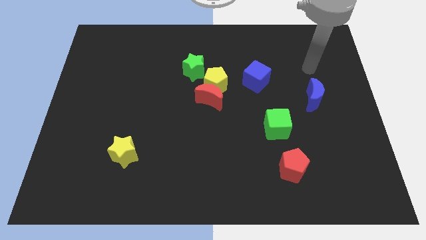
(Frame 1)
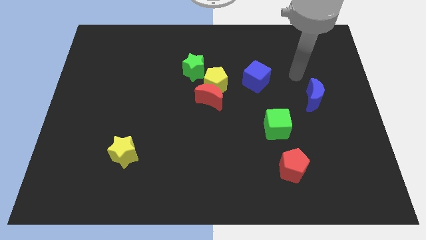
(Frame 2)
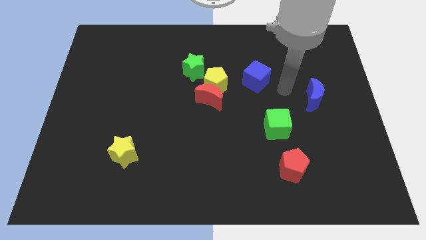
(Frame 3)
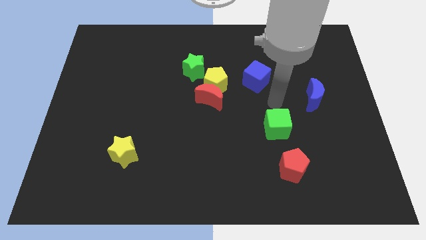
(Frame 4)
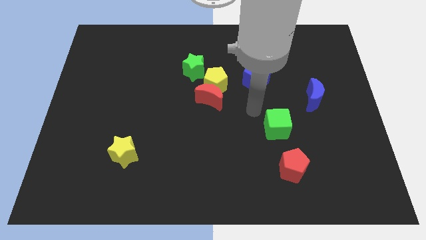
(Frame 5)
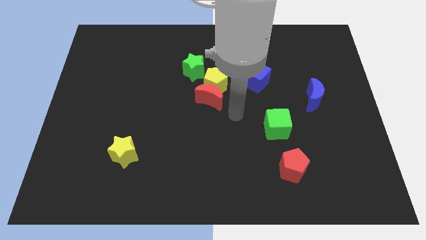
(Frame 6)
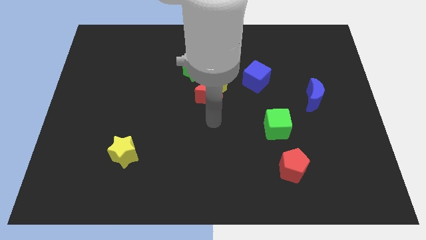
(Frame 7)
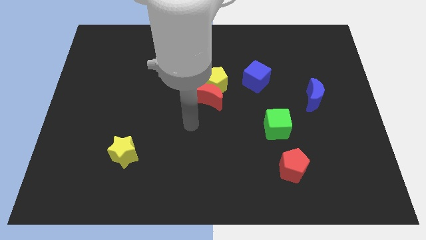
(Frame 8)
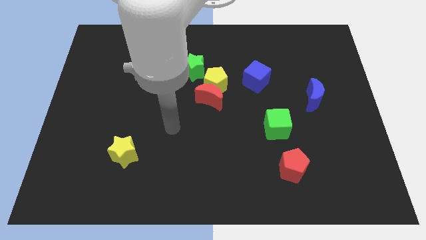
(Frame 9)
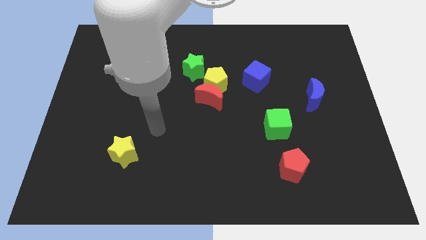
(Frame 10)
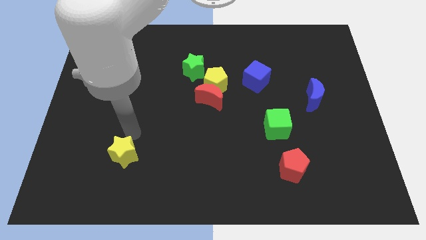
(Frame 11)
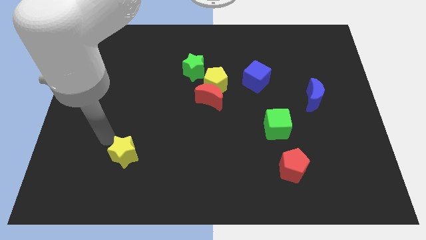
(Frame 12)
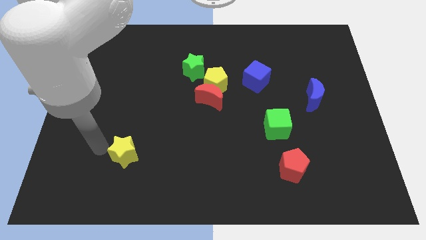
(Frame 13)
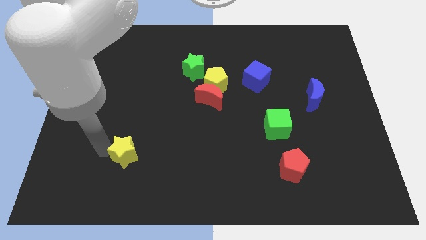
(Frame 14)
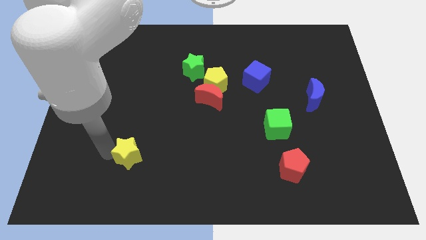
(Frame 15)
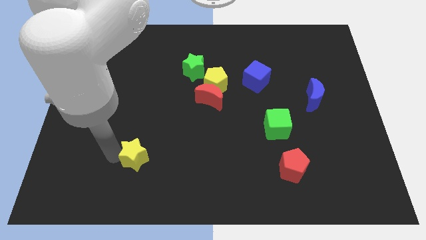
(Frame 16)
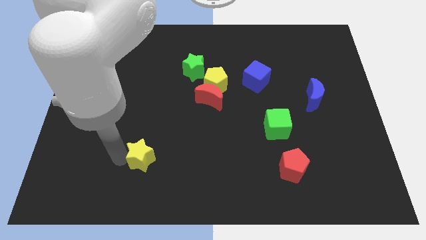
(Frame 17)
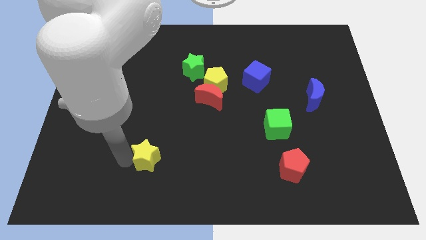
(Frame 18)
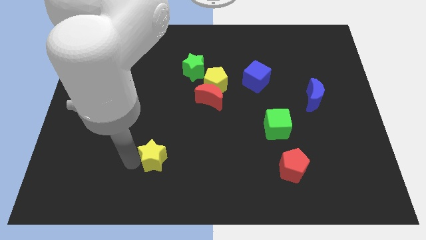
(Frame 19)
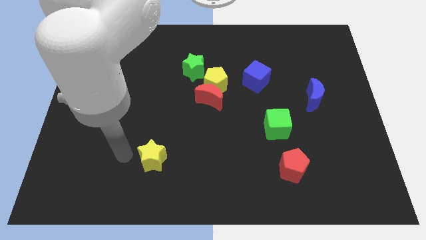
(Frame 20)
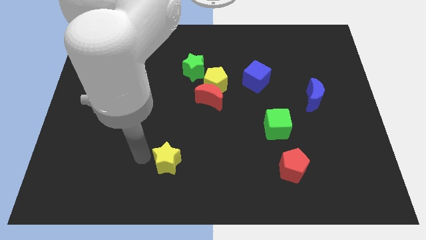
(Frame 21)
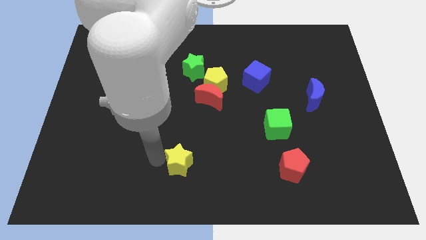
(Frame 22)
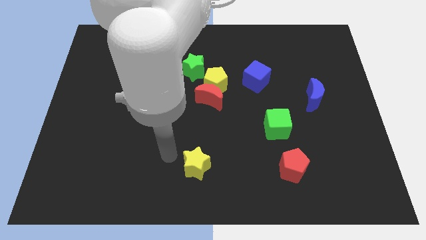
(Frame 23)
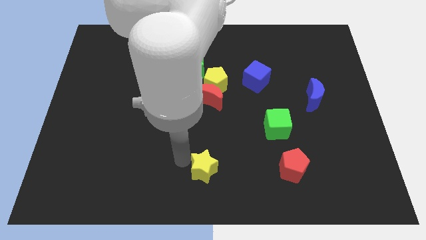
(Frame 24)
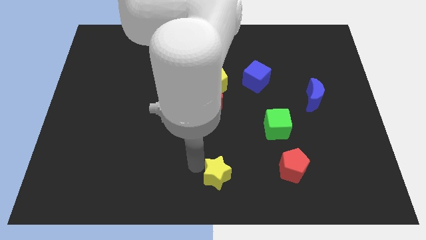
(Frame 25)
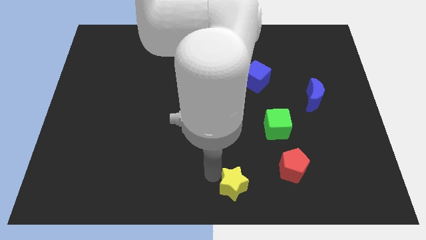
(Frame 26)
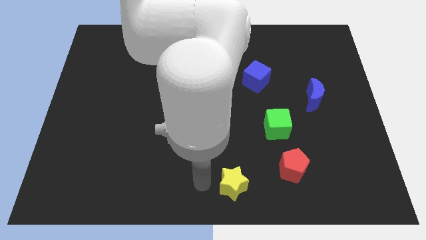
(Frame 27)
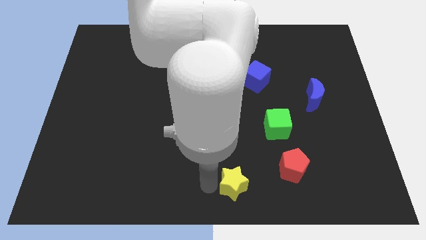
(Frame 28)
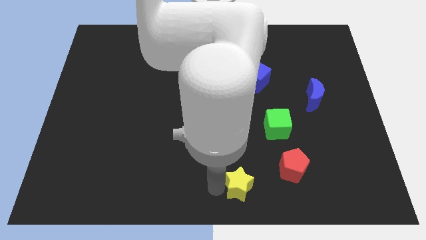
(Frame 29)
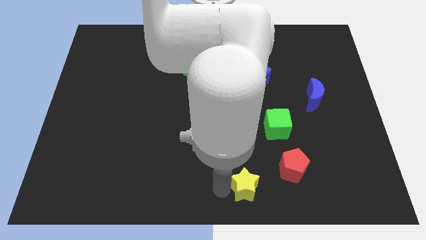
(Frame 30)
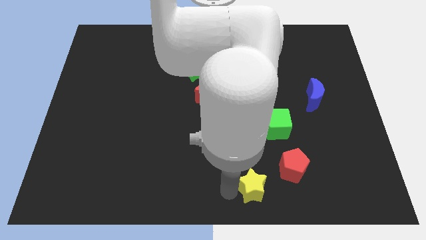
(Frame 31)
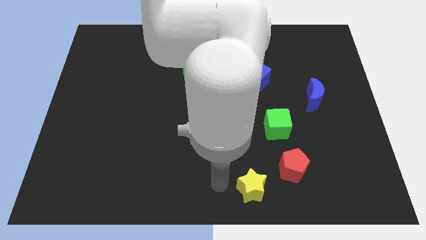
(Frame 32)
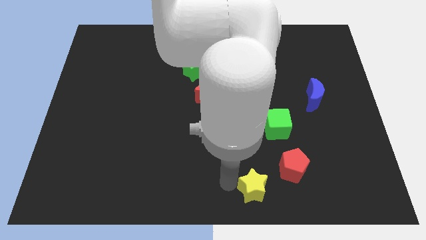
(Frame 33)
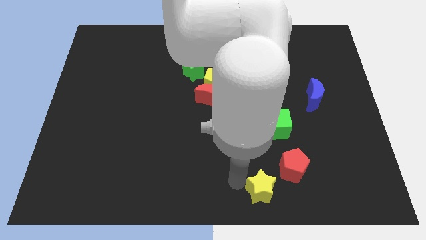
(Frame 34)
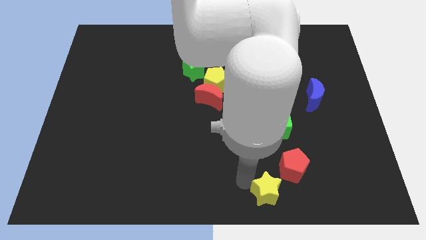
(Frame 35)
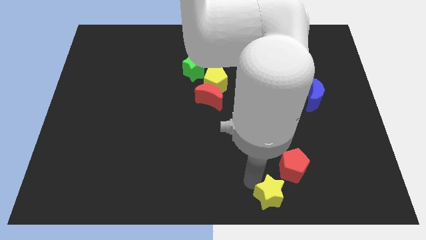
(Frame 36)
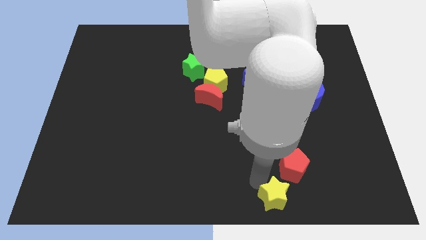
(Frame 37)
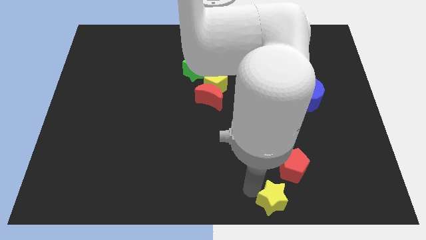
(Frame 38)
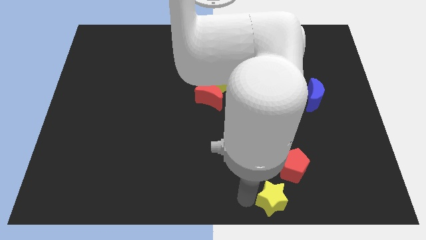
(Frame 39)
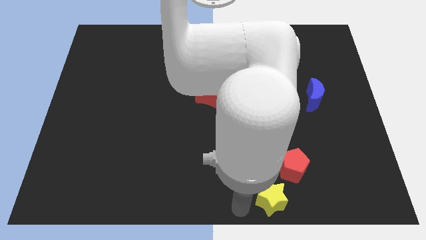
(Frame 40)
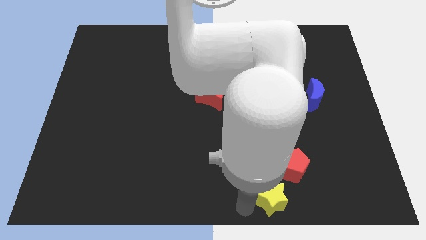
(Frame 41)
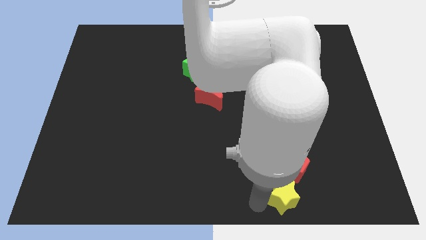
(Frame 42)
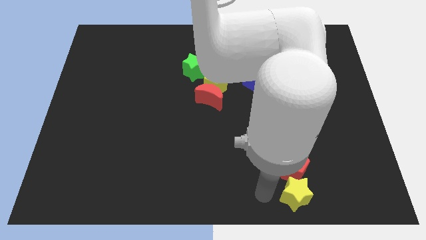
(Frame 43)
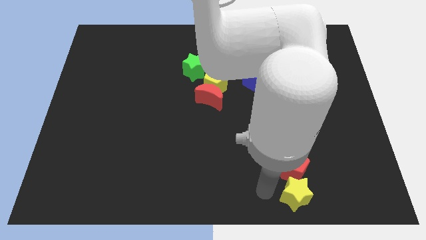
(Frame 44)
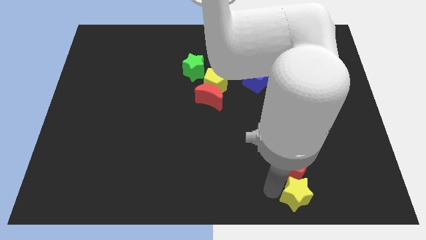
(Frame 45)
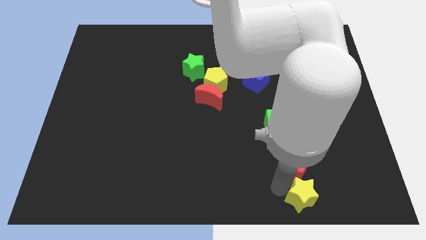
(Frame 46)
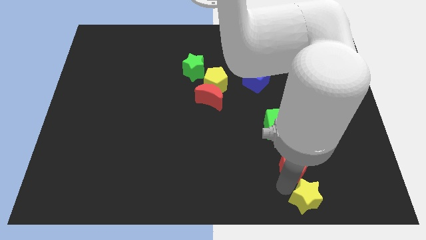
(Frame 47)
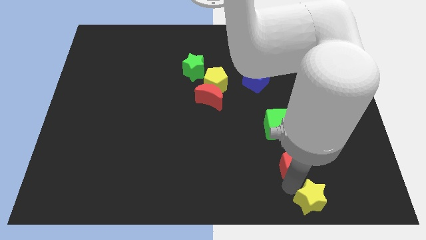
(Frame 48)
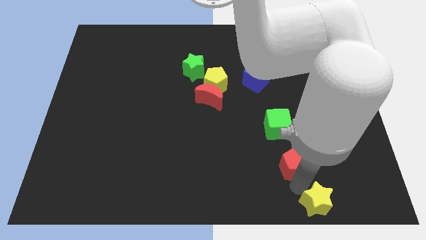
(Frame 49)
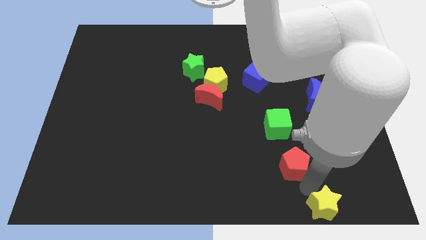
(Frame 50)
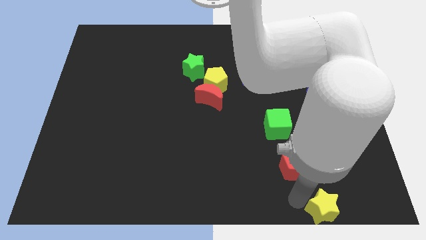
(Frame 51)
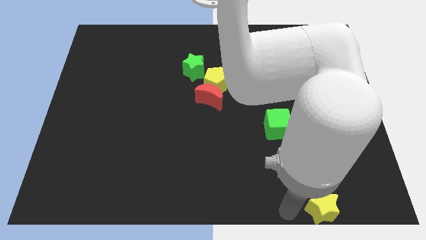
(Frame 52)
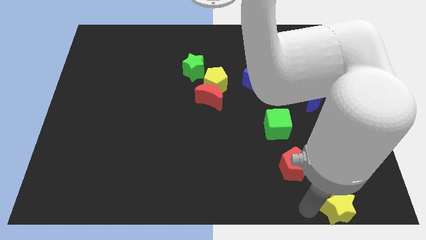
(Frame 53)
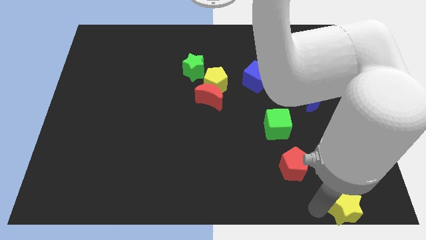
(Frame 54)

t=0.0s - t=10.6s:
push the yellow star to the bottom right

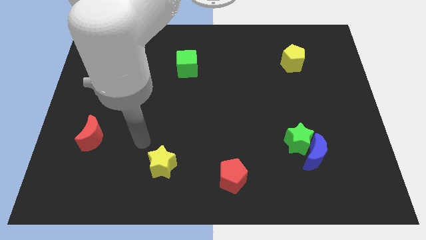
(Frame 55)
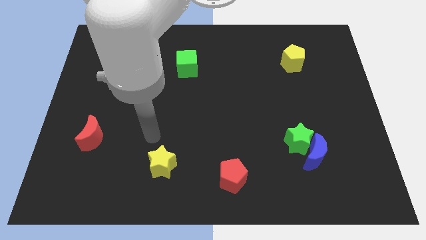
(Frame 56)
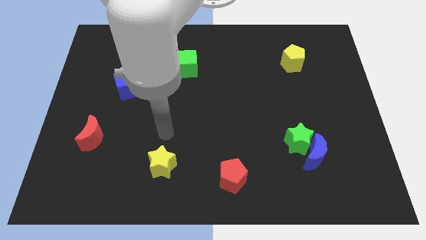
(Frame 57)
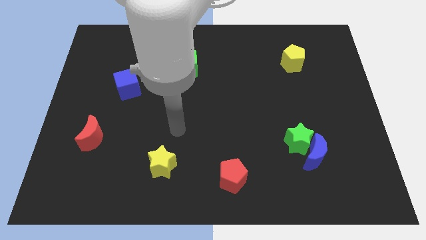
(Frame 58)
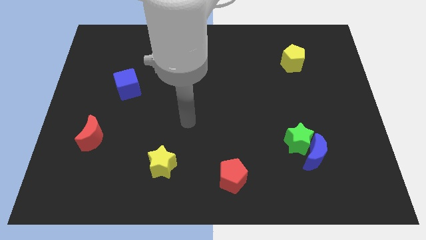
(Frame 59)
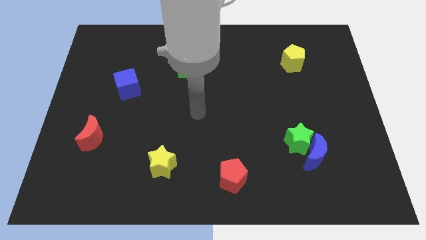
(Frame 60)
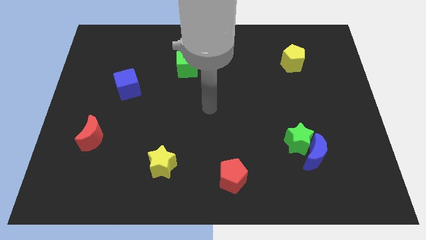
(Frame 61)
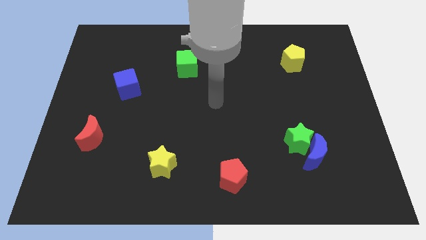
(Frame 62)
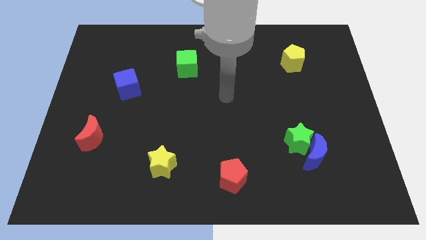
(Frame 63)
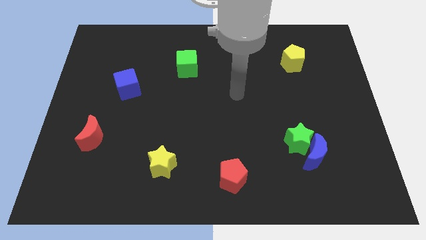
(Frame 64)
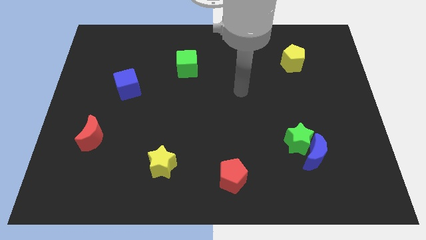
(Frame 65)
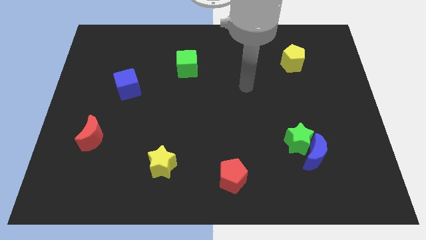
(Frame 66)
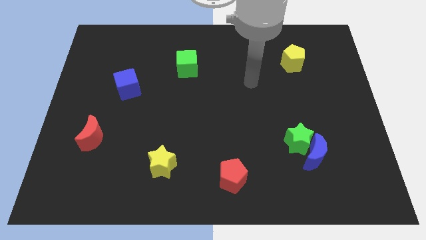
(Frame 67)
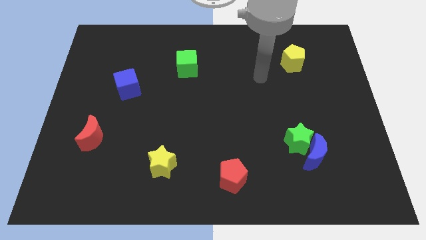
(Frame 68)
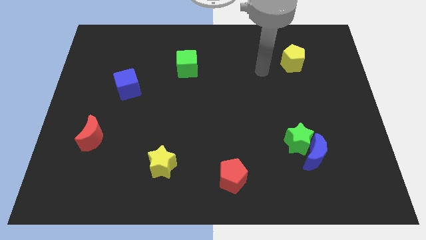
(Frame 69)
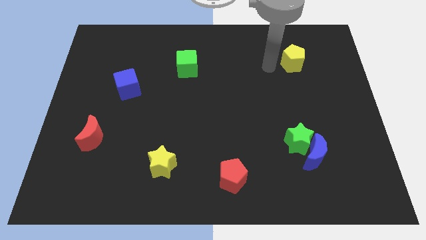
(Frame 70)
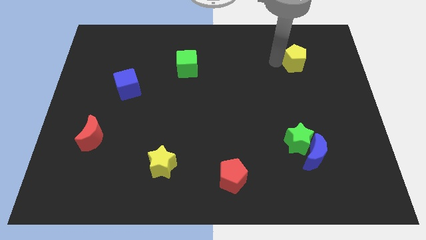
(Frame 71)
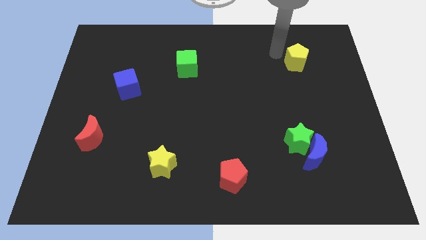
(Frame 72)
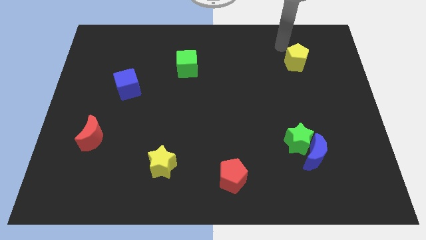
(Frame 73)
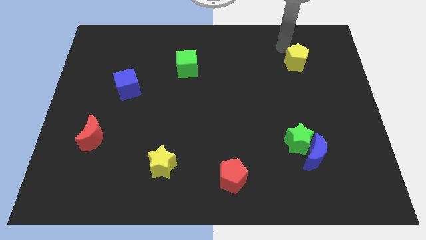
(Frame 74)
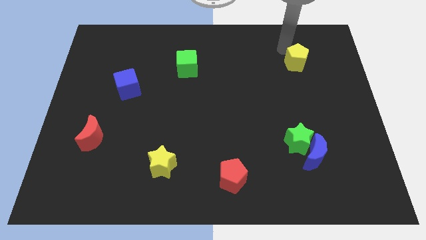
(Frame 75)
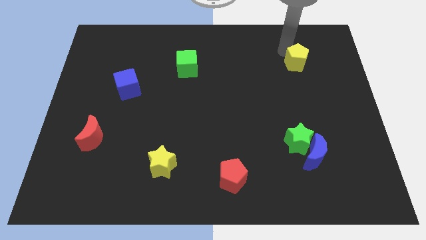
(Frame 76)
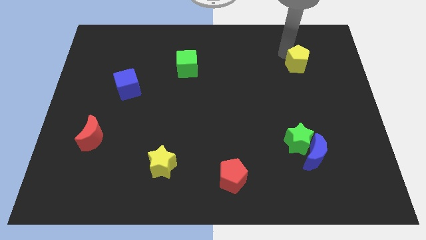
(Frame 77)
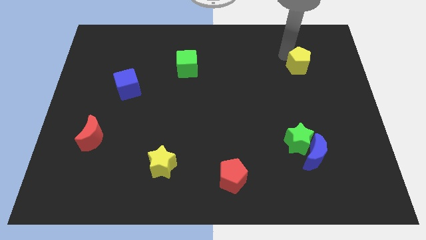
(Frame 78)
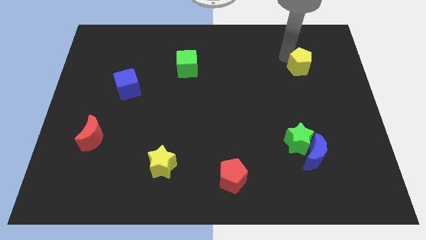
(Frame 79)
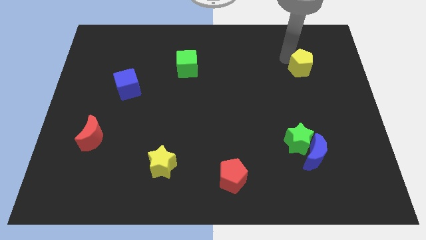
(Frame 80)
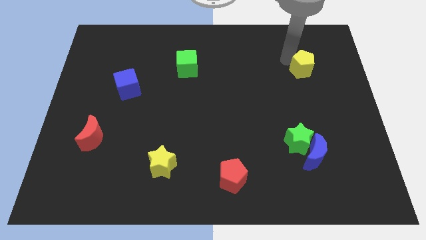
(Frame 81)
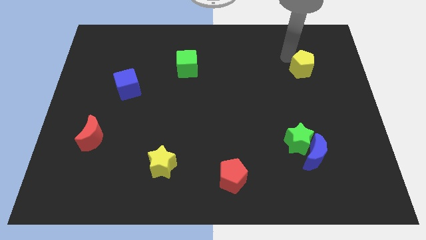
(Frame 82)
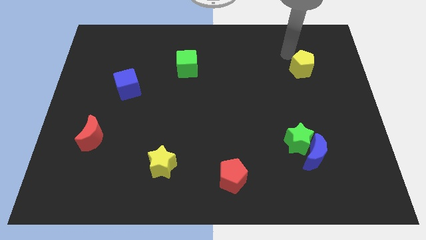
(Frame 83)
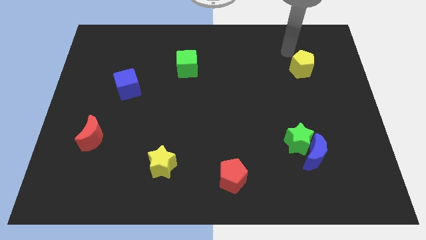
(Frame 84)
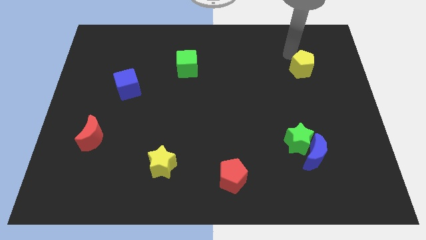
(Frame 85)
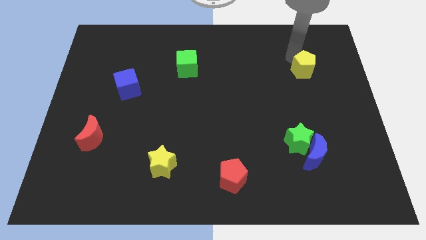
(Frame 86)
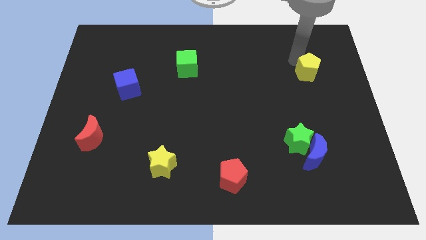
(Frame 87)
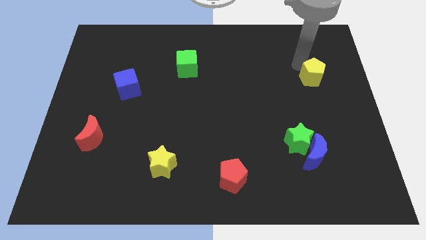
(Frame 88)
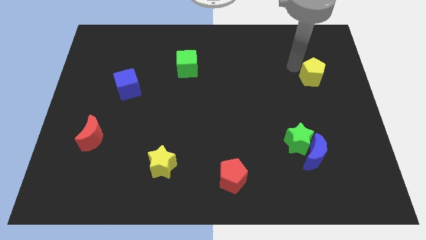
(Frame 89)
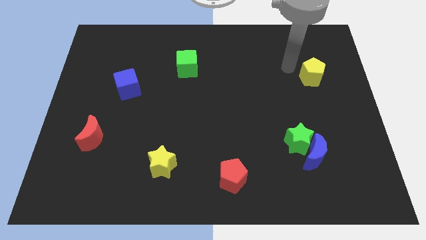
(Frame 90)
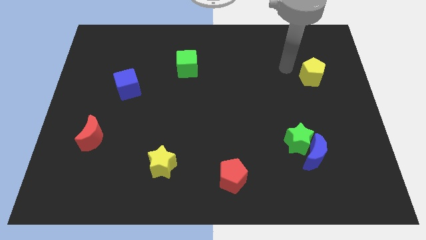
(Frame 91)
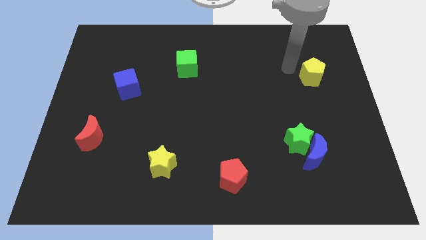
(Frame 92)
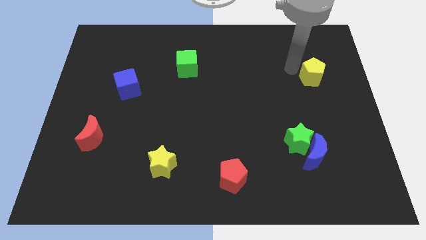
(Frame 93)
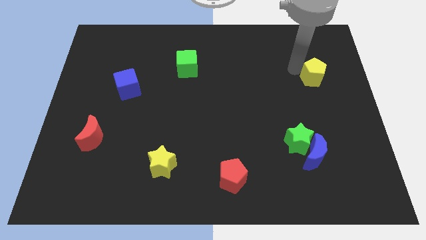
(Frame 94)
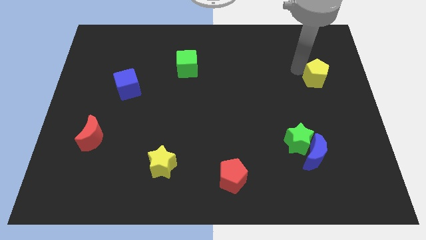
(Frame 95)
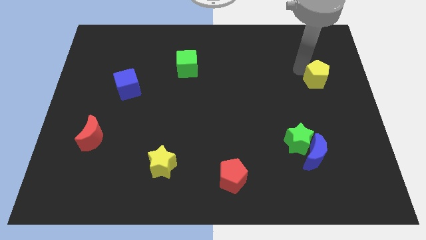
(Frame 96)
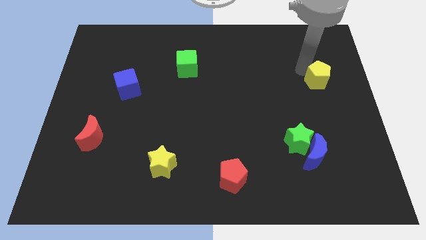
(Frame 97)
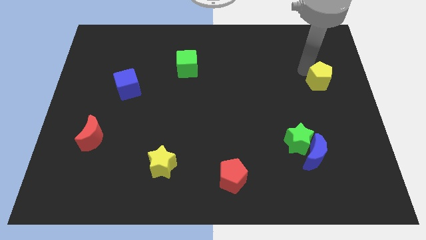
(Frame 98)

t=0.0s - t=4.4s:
put the yellow pentagon to the right side of the board
